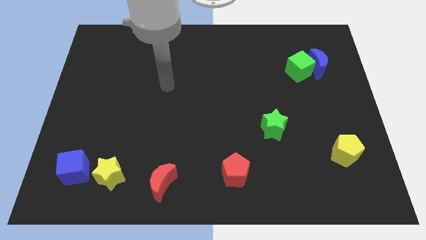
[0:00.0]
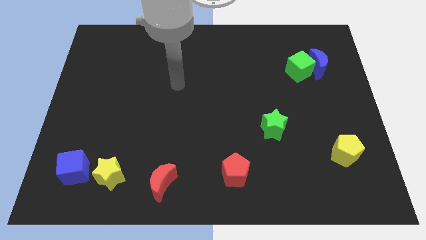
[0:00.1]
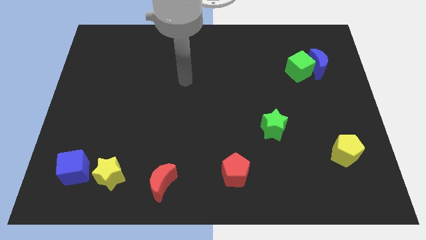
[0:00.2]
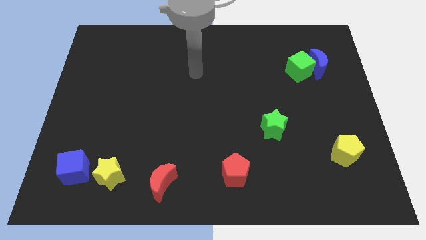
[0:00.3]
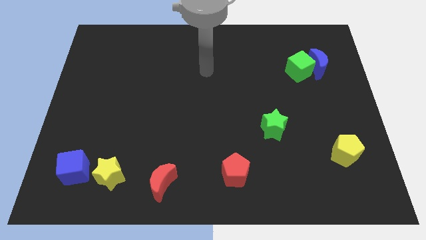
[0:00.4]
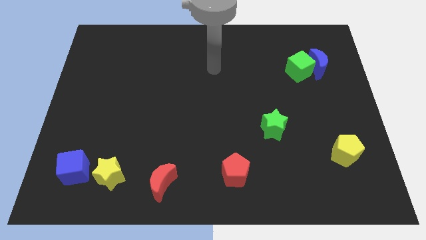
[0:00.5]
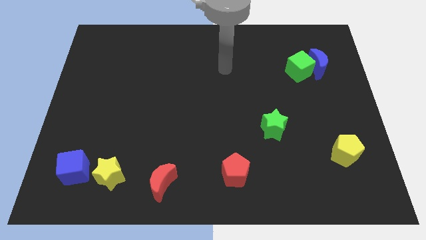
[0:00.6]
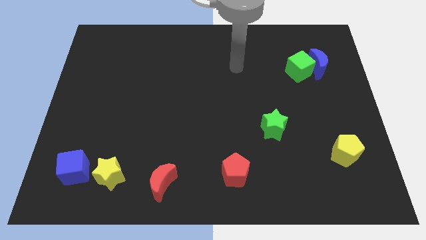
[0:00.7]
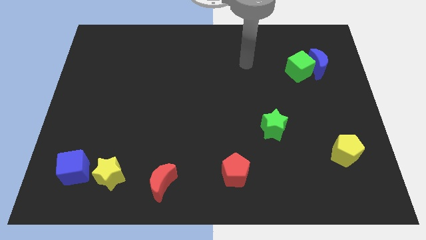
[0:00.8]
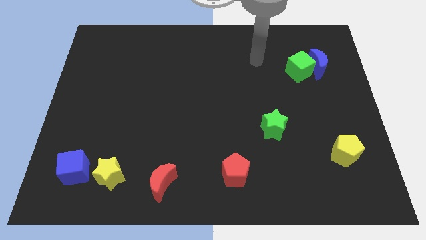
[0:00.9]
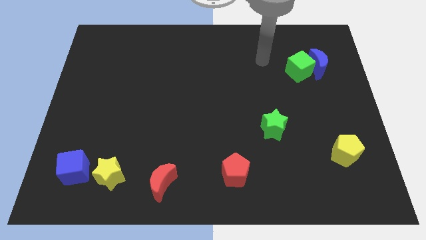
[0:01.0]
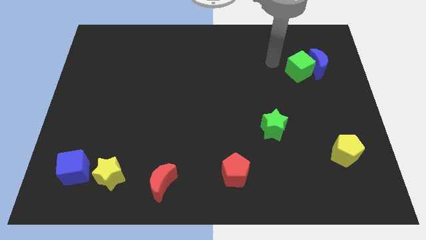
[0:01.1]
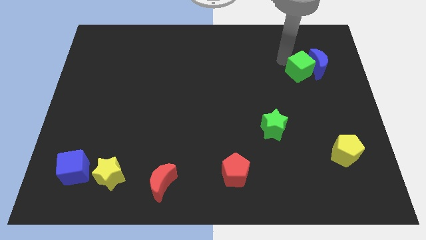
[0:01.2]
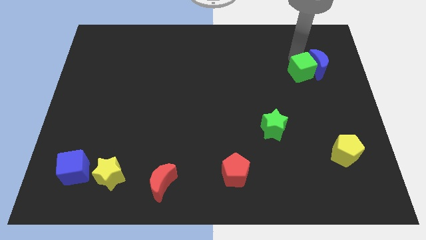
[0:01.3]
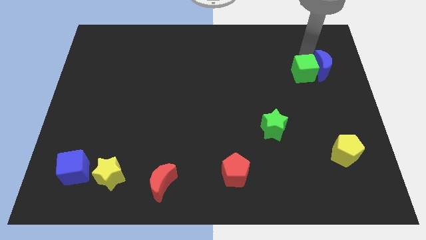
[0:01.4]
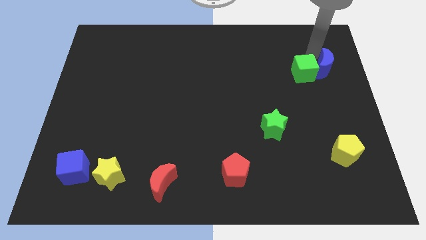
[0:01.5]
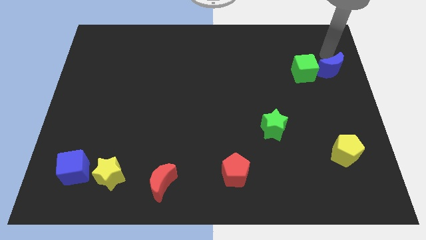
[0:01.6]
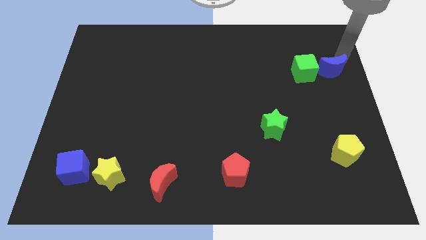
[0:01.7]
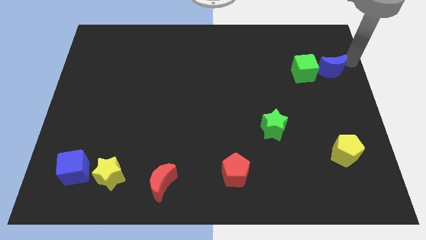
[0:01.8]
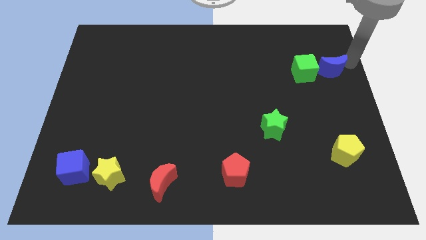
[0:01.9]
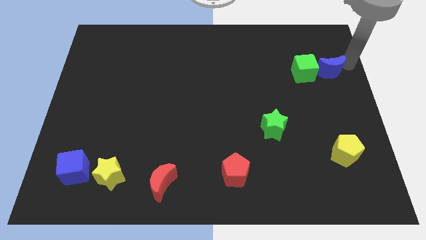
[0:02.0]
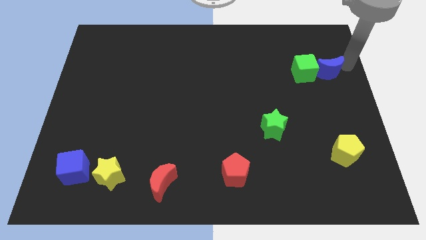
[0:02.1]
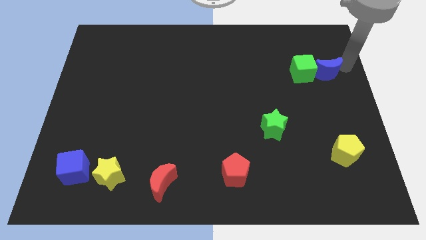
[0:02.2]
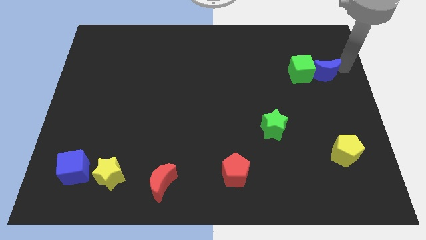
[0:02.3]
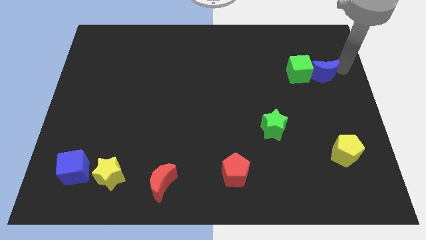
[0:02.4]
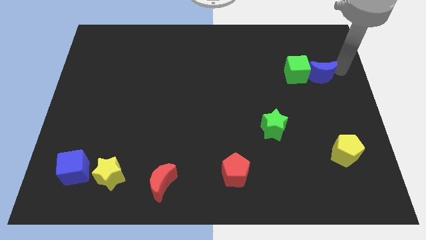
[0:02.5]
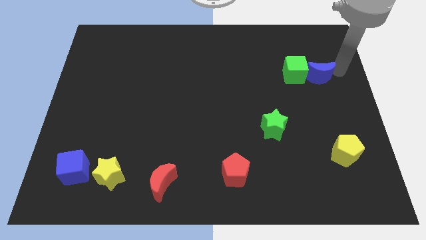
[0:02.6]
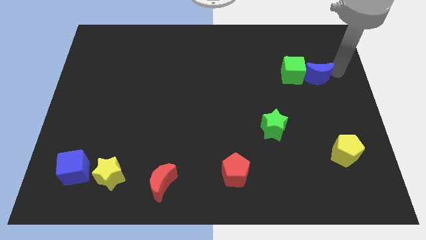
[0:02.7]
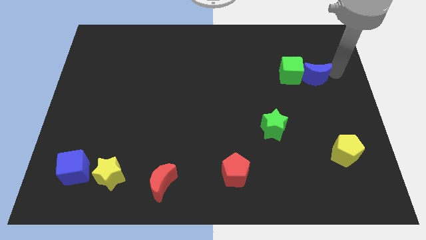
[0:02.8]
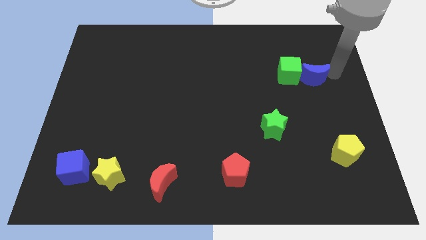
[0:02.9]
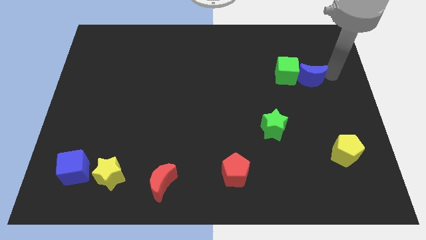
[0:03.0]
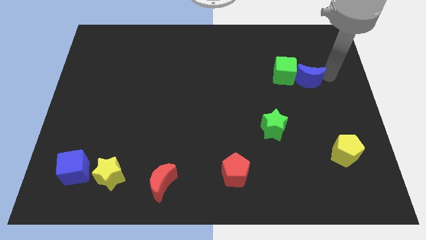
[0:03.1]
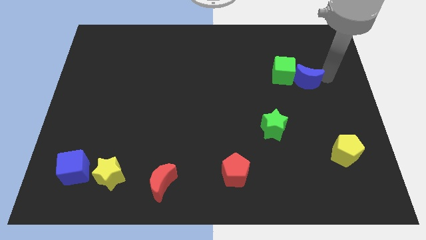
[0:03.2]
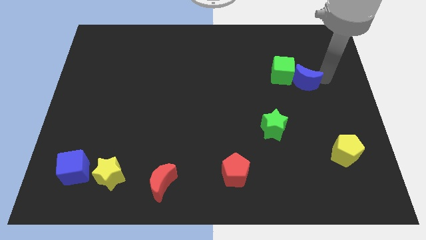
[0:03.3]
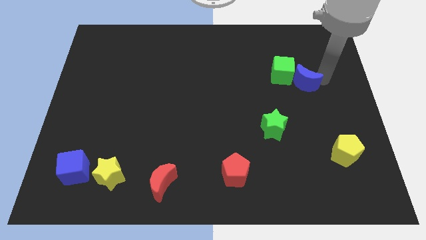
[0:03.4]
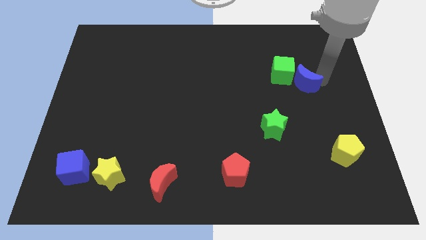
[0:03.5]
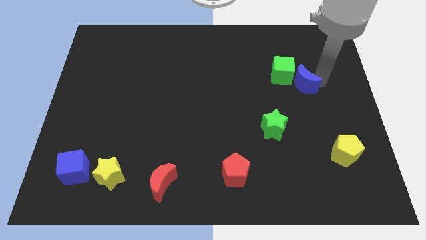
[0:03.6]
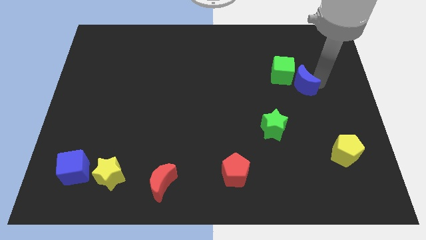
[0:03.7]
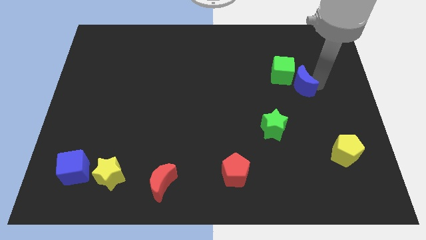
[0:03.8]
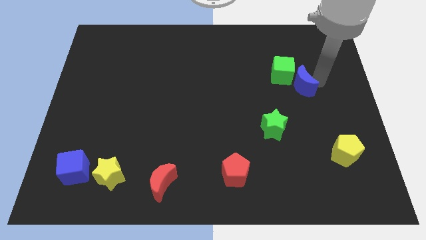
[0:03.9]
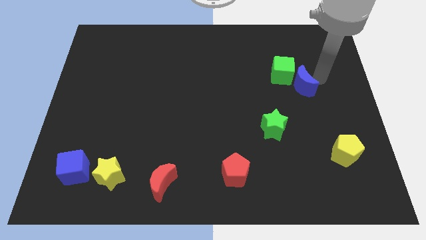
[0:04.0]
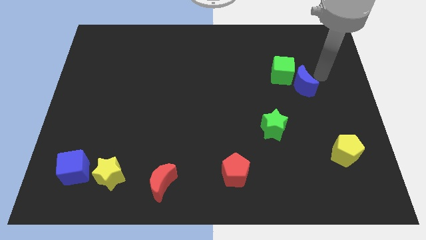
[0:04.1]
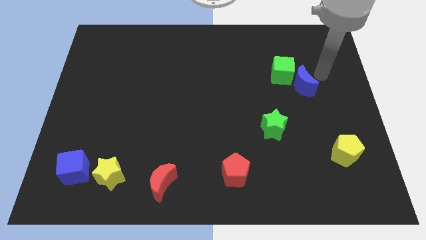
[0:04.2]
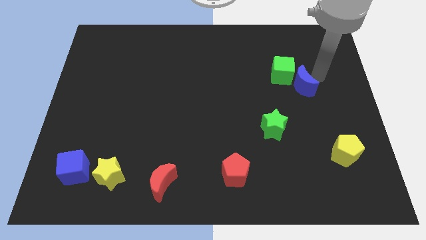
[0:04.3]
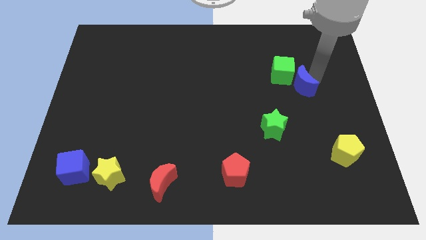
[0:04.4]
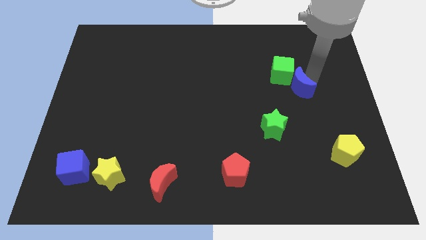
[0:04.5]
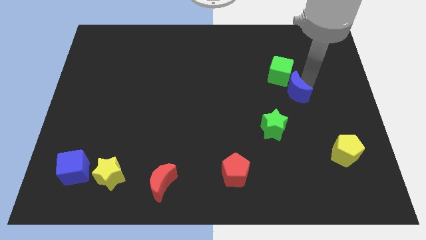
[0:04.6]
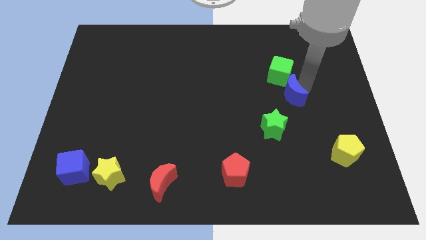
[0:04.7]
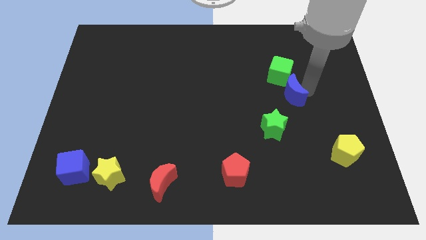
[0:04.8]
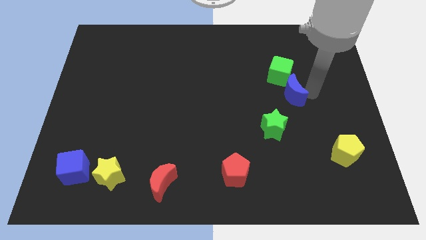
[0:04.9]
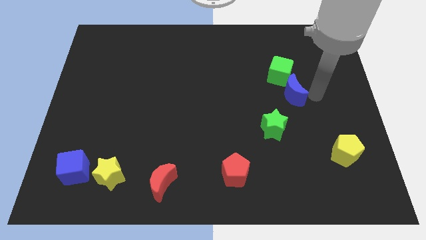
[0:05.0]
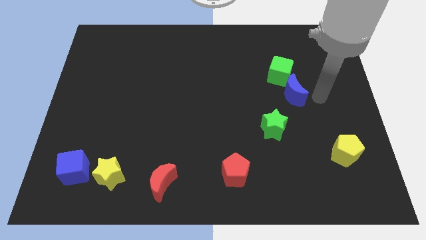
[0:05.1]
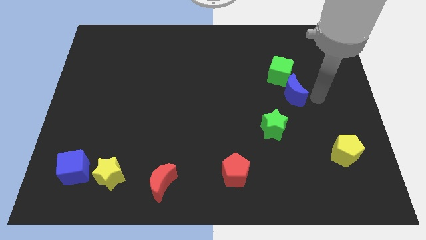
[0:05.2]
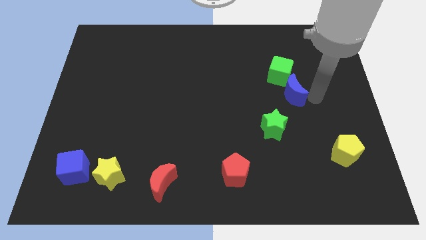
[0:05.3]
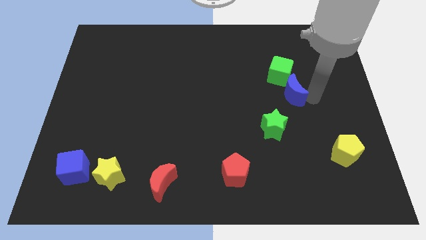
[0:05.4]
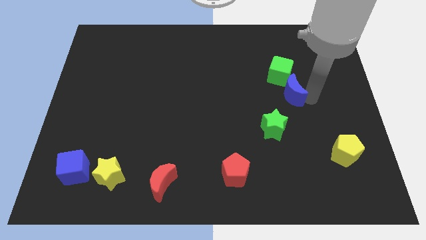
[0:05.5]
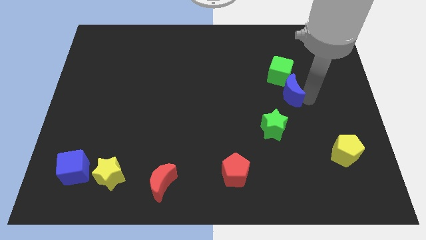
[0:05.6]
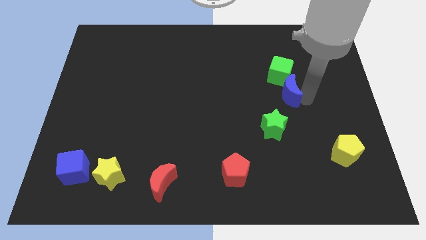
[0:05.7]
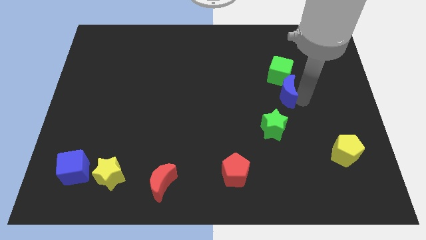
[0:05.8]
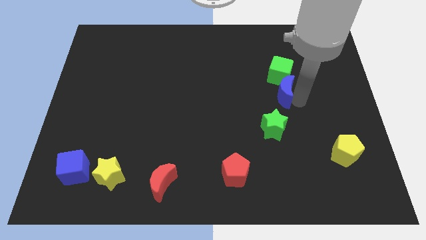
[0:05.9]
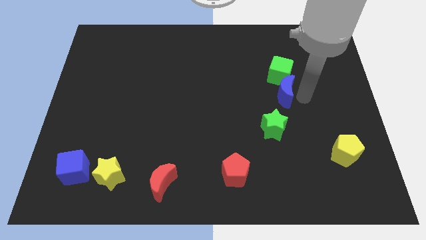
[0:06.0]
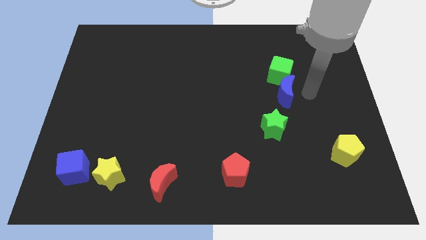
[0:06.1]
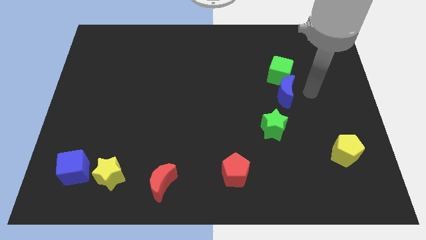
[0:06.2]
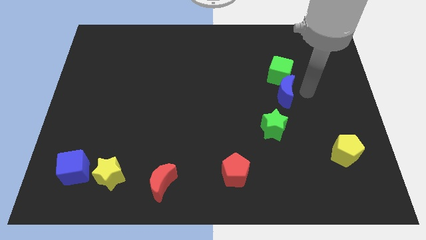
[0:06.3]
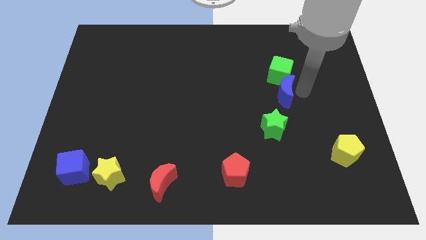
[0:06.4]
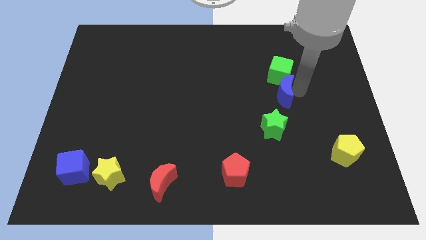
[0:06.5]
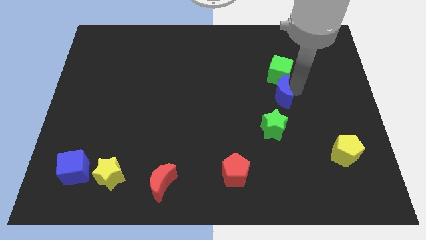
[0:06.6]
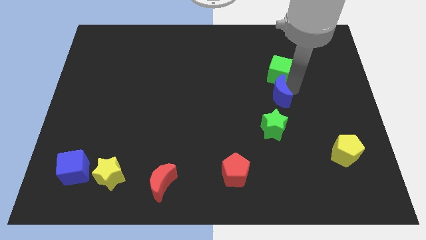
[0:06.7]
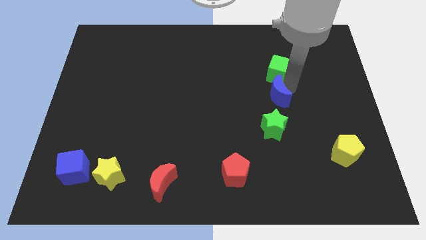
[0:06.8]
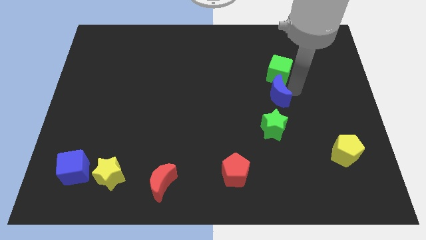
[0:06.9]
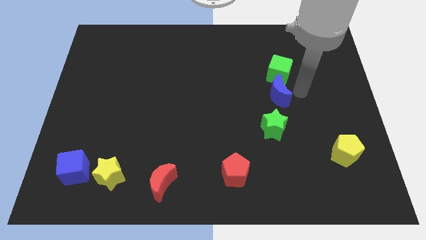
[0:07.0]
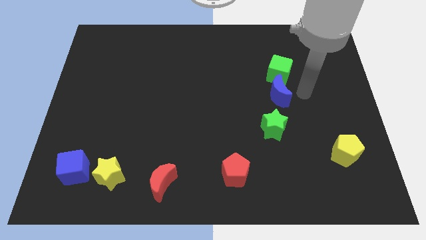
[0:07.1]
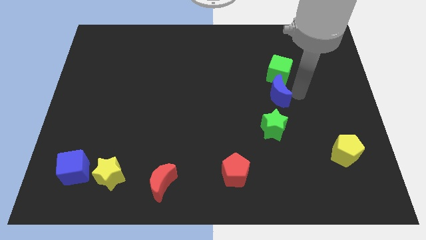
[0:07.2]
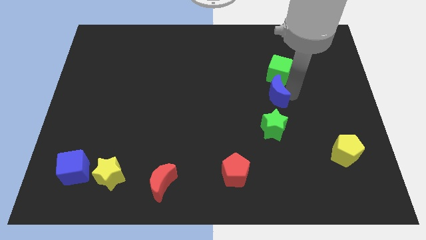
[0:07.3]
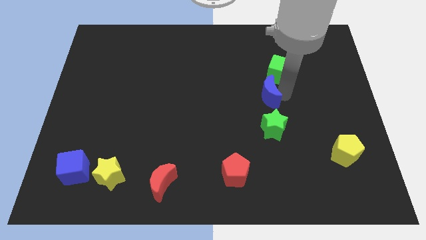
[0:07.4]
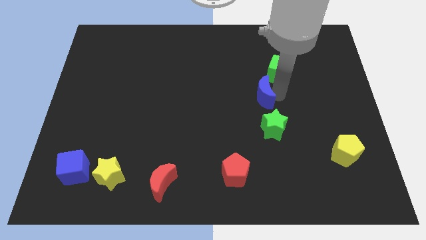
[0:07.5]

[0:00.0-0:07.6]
slide the blue moon to the center of the board
